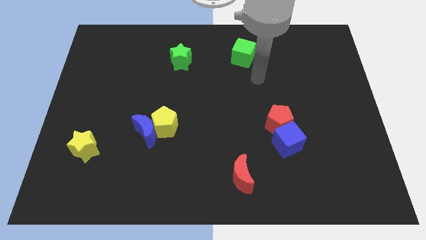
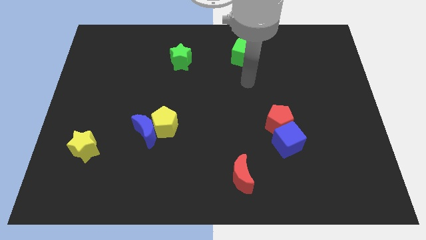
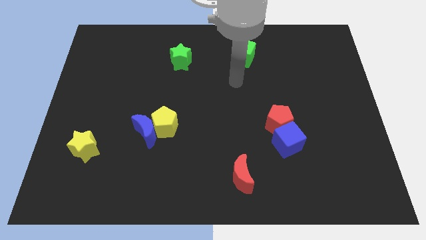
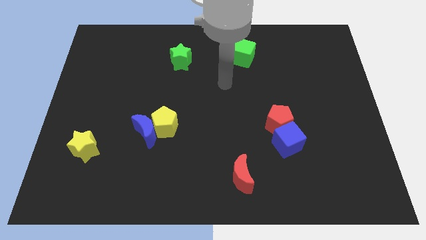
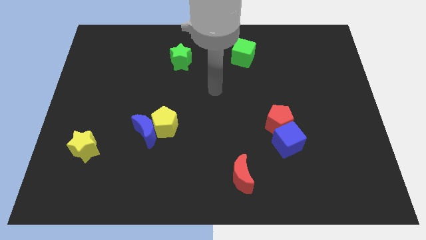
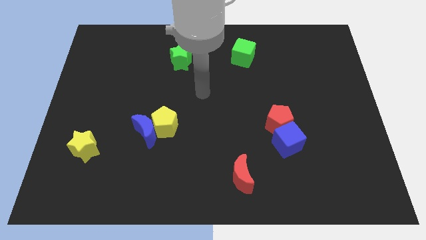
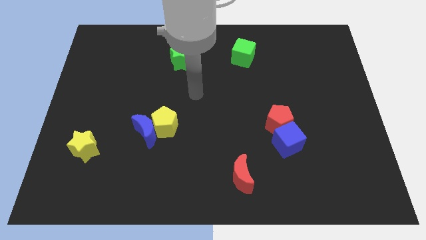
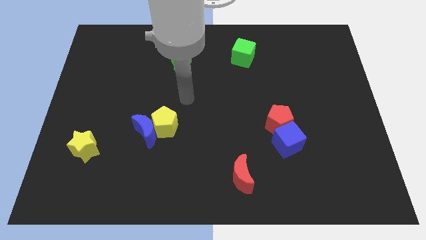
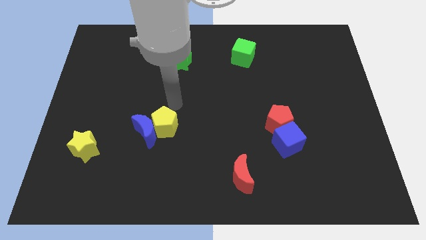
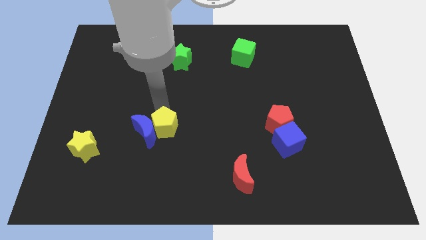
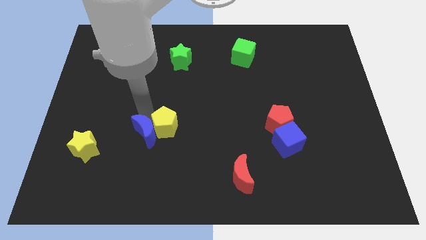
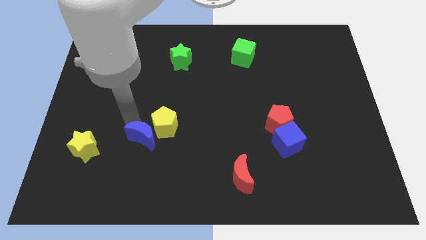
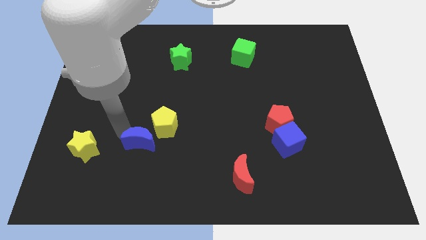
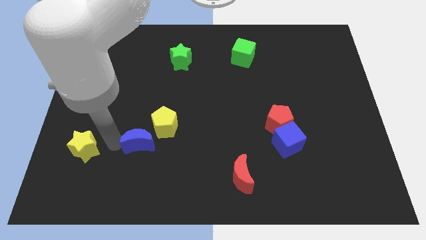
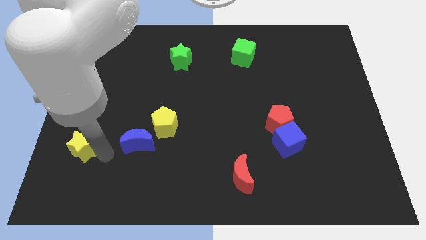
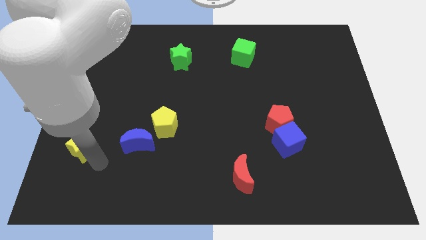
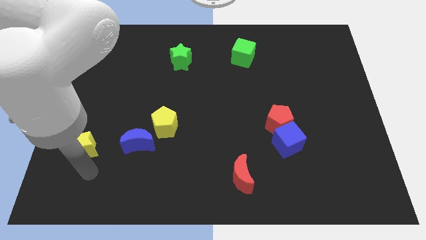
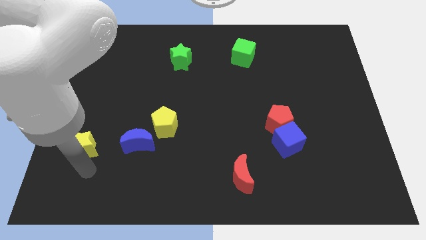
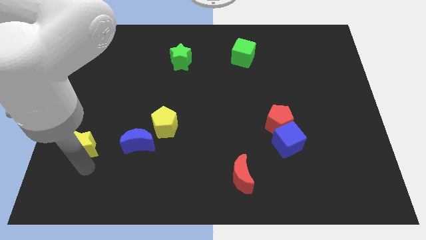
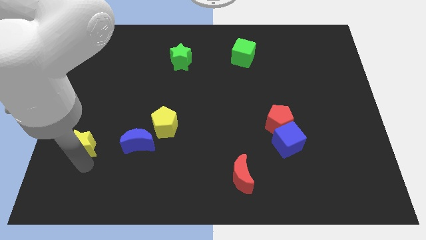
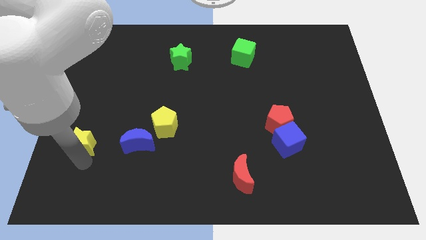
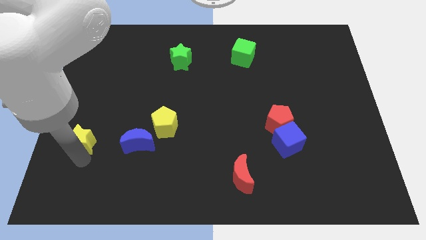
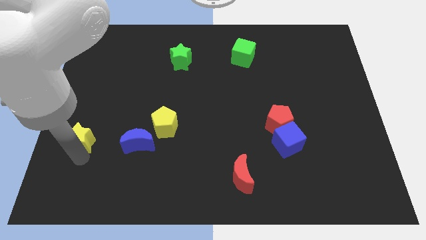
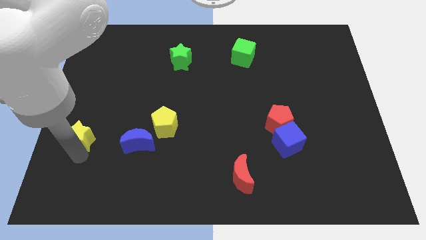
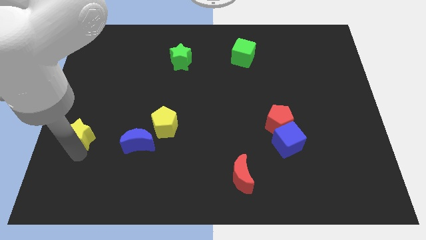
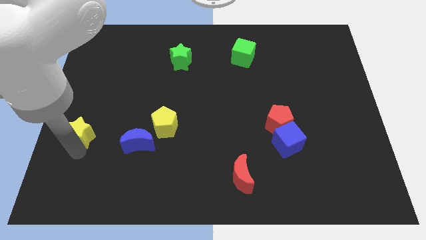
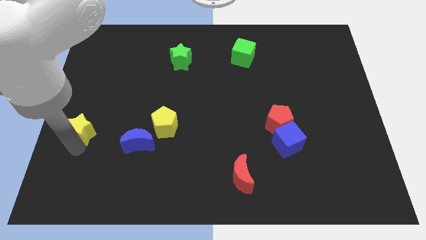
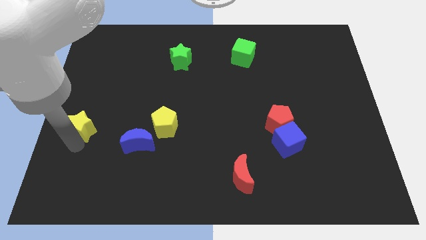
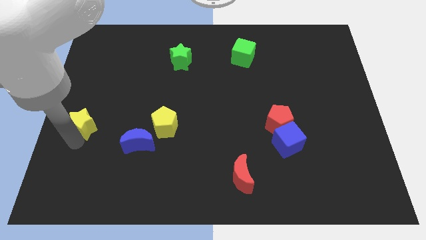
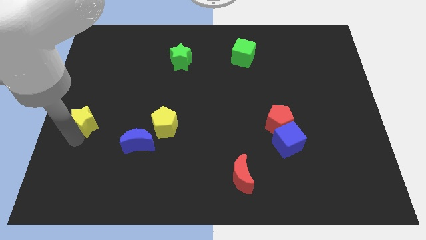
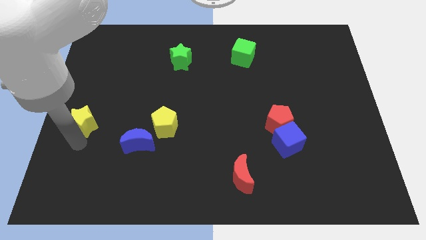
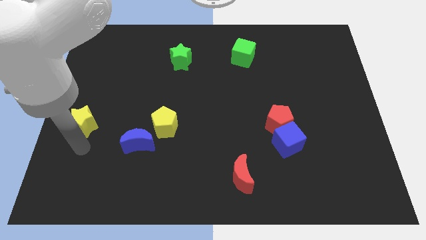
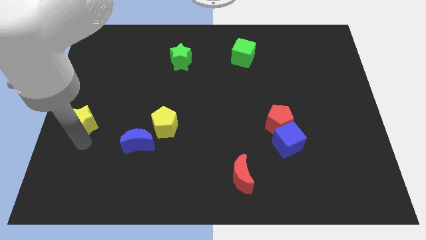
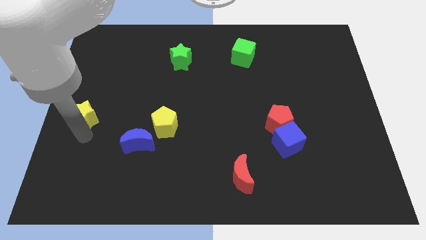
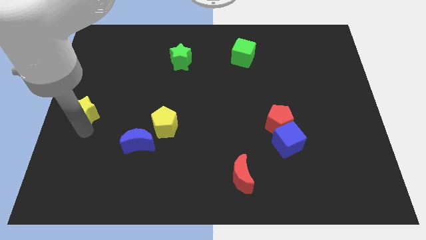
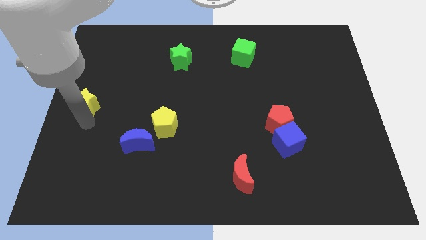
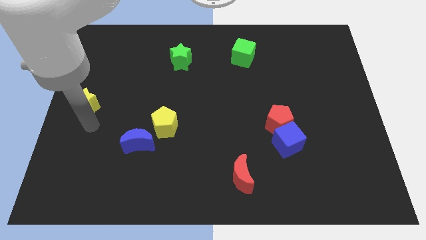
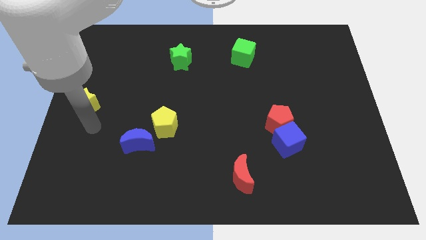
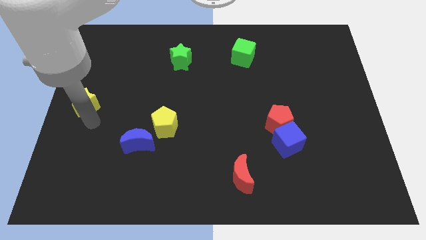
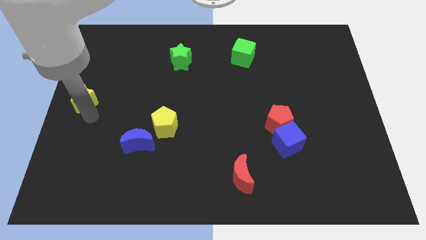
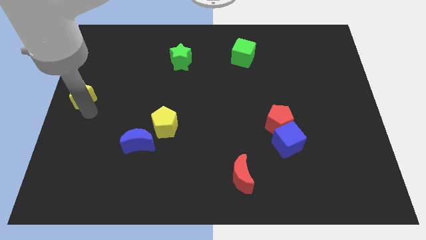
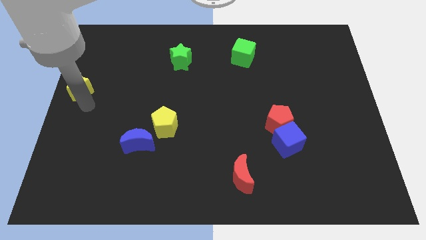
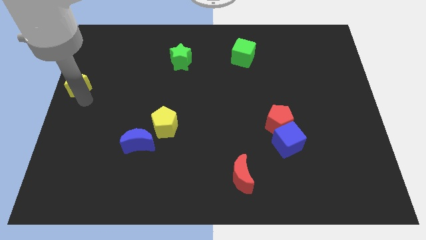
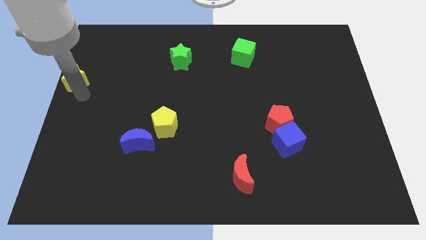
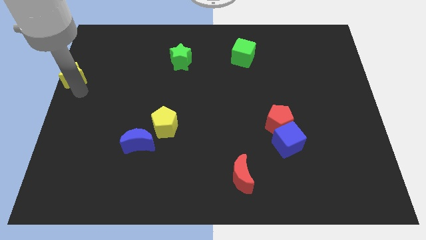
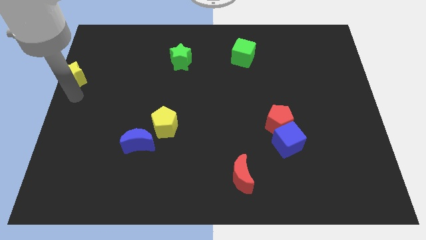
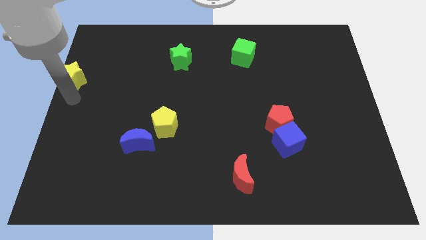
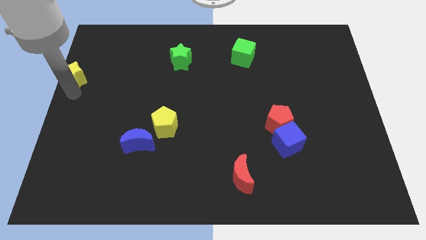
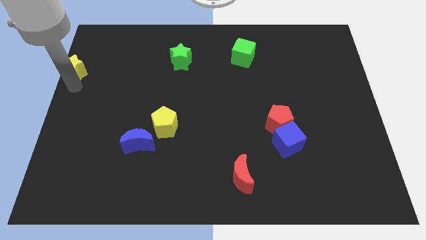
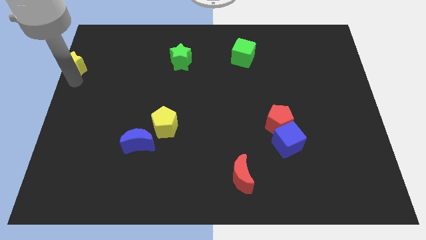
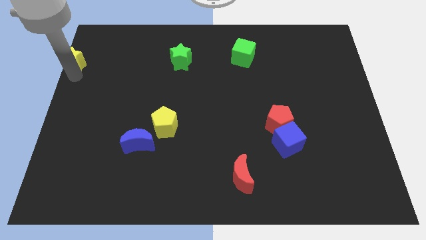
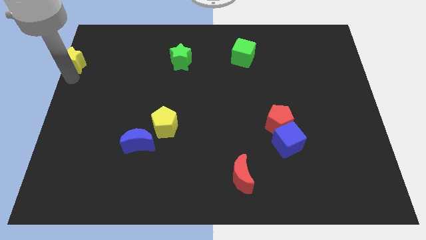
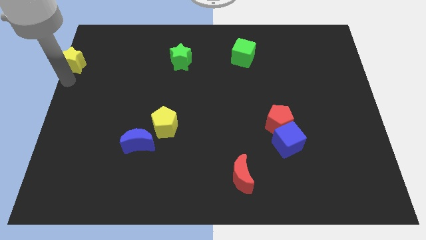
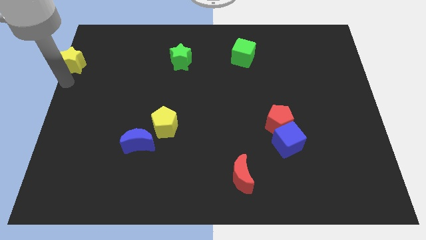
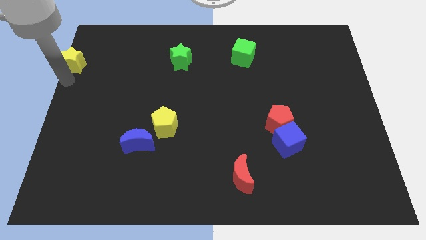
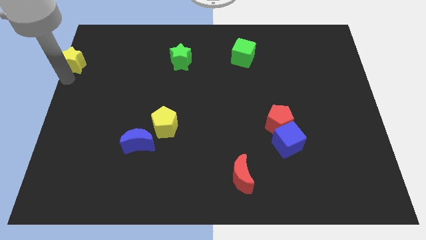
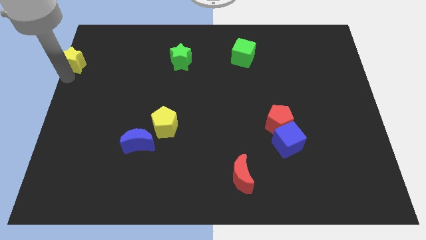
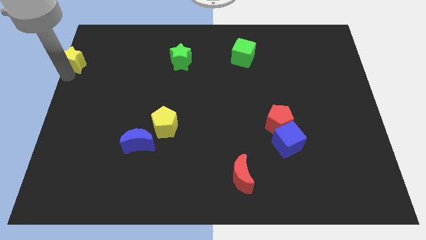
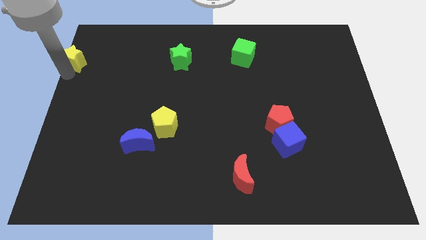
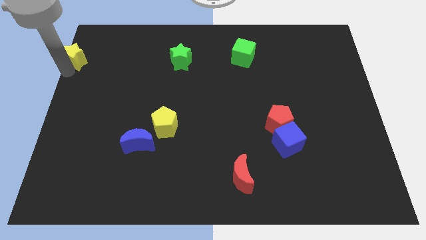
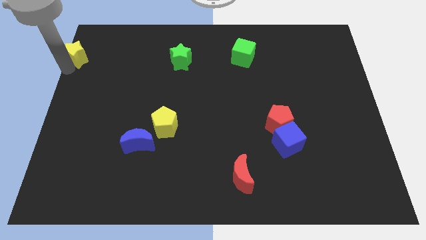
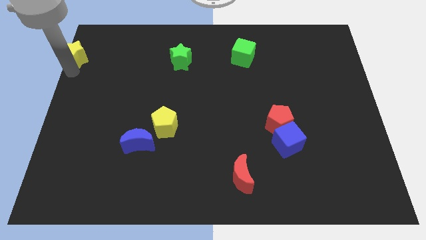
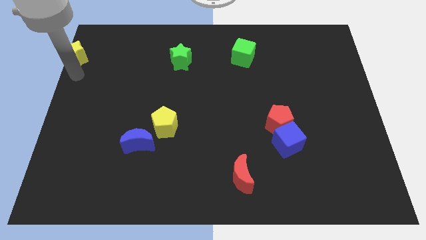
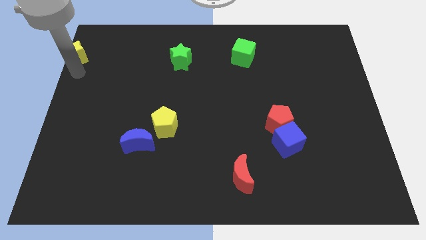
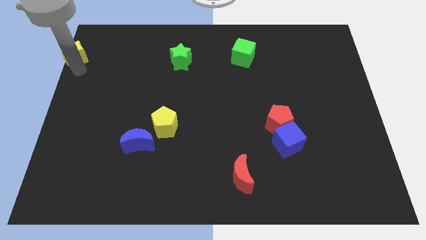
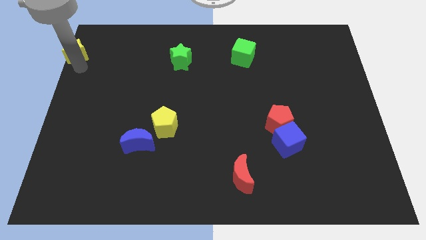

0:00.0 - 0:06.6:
put the yellow star to the upper left corner
